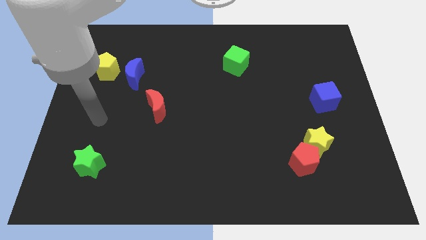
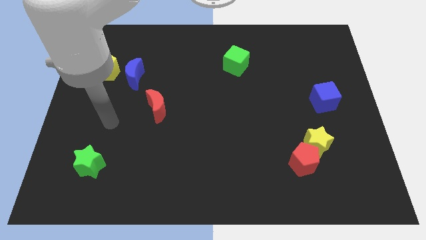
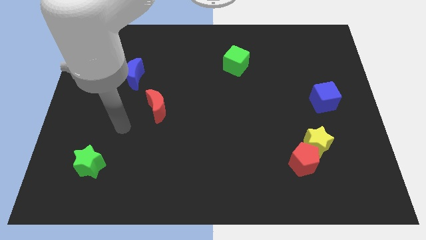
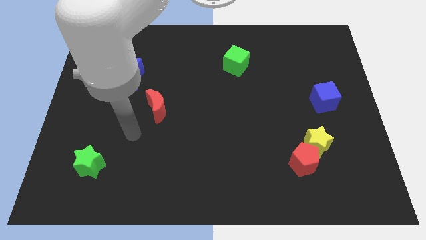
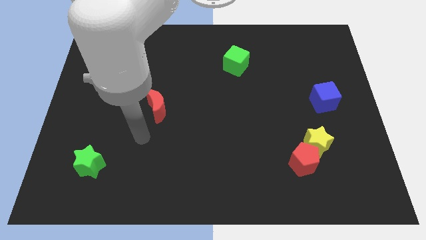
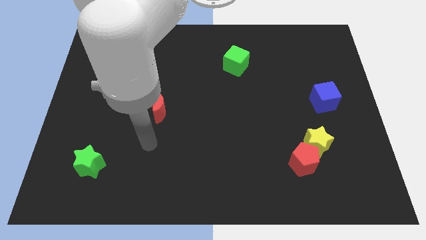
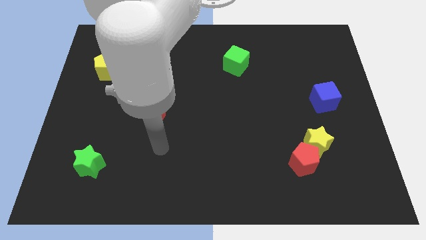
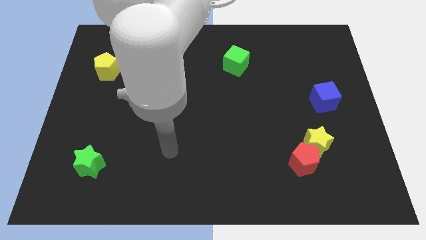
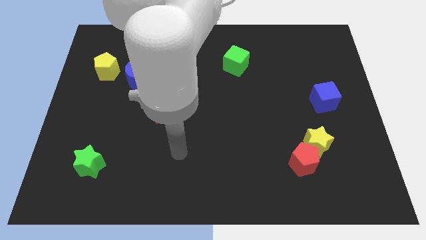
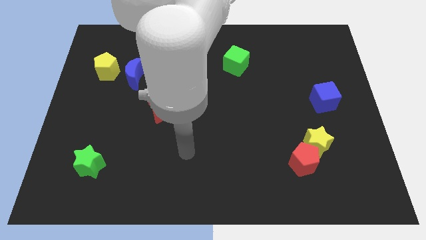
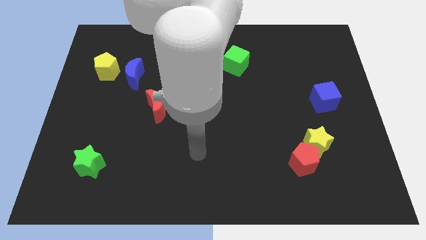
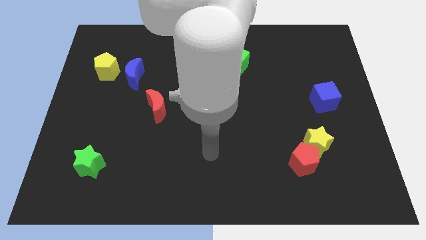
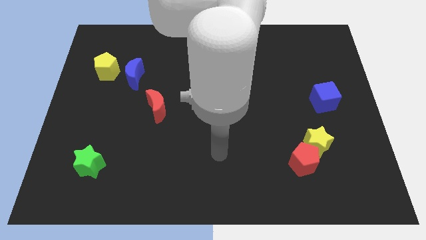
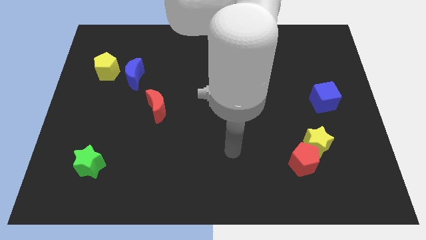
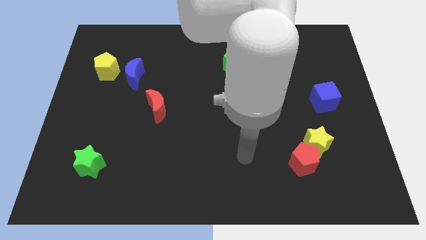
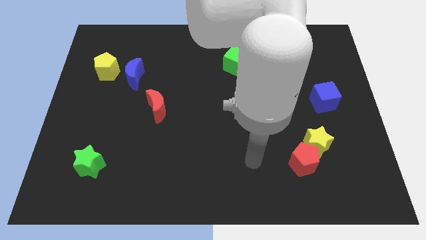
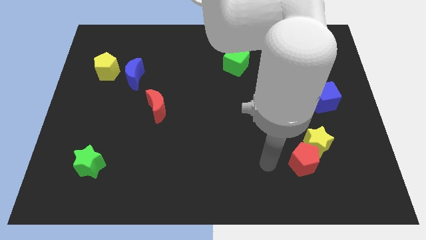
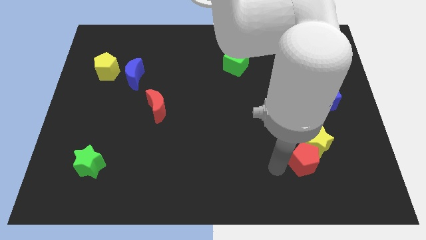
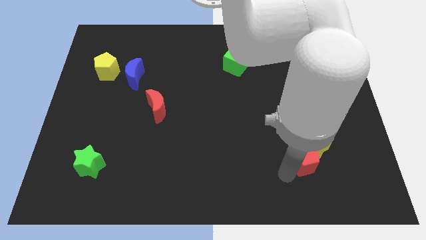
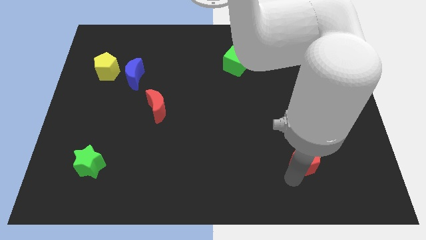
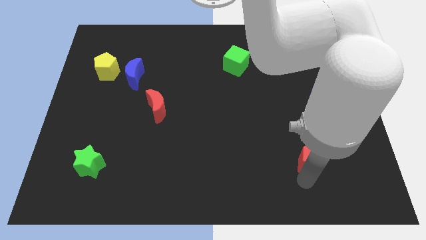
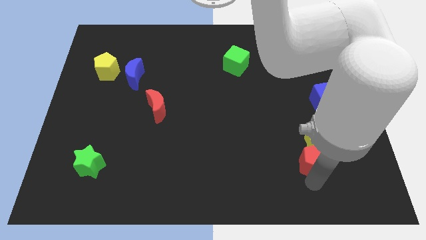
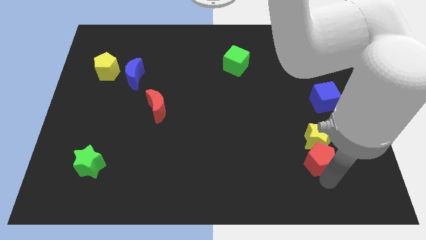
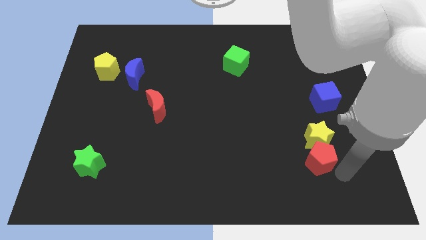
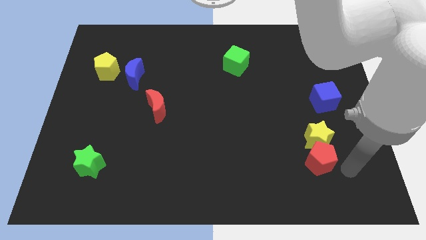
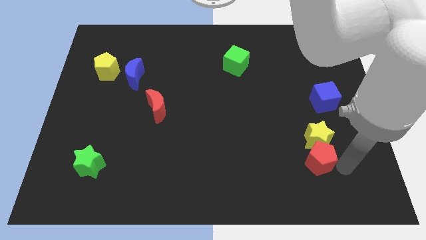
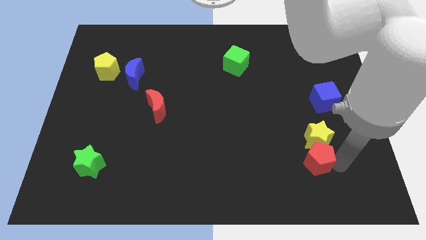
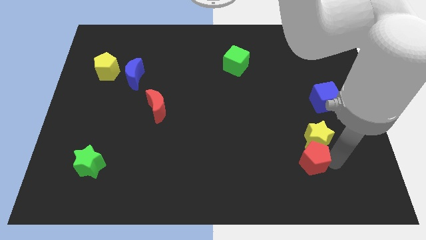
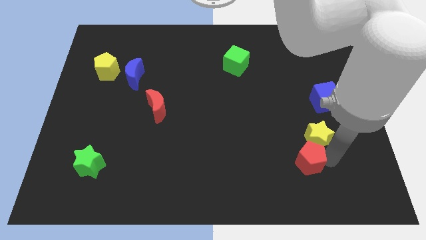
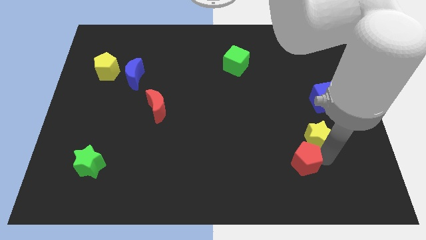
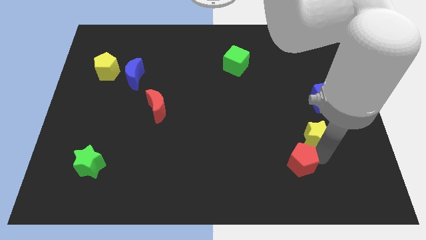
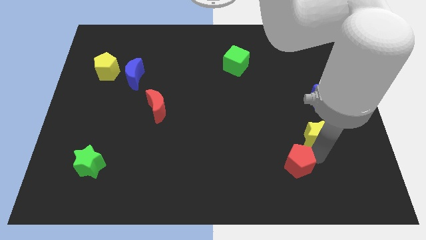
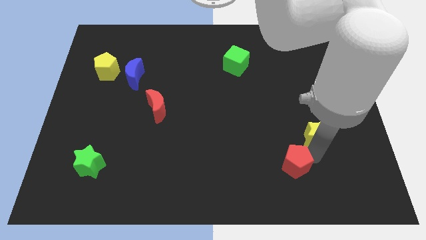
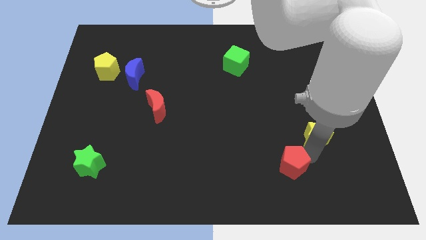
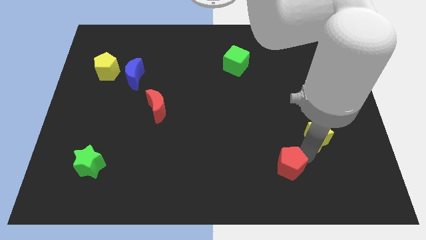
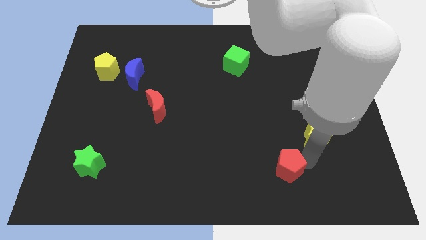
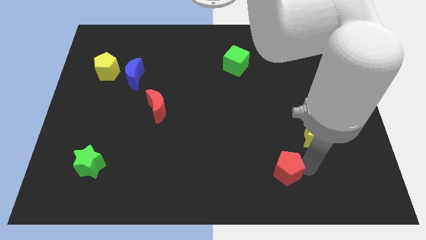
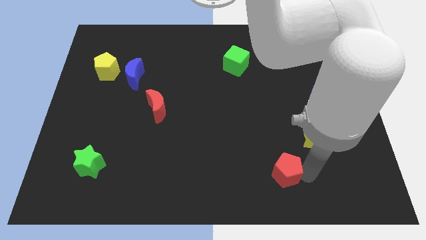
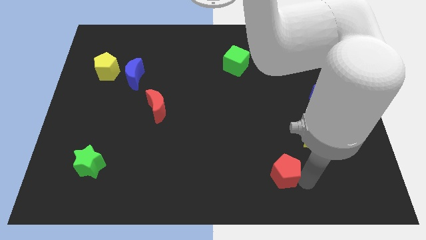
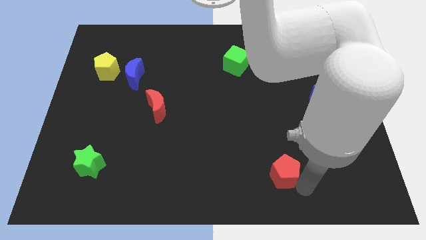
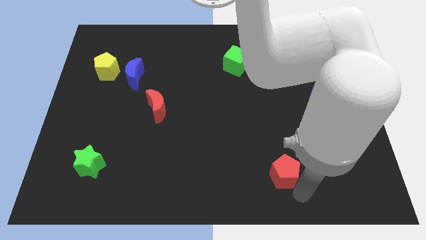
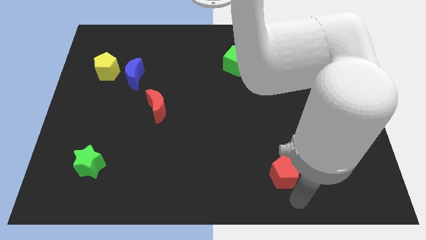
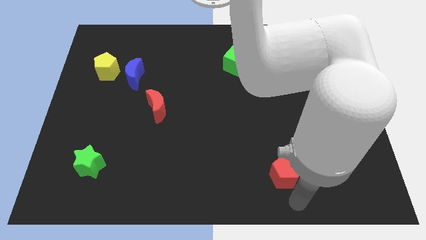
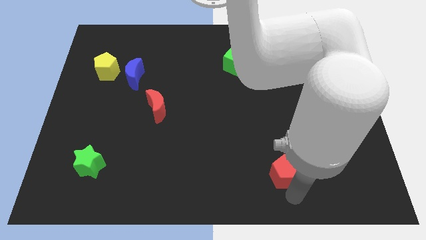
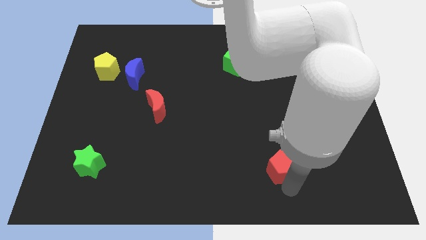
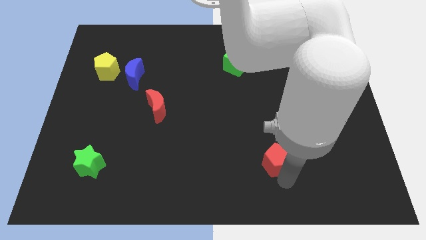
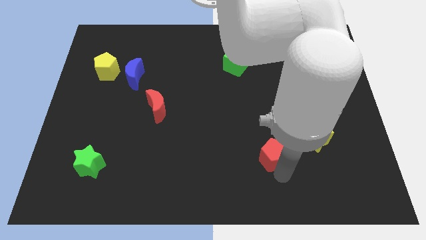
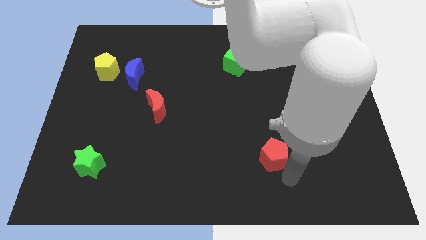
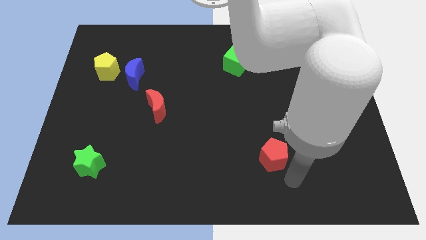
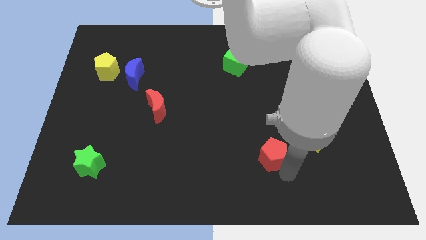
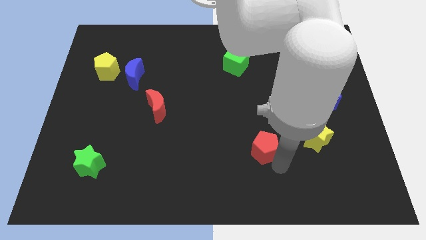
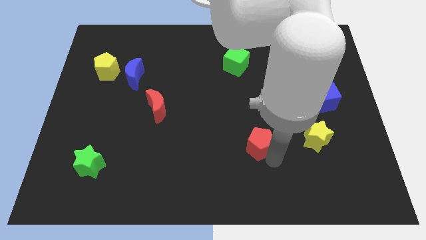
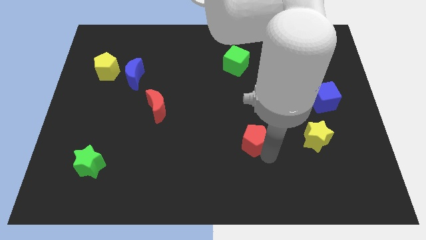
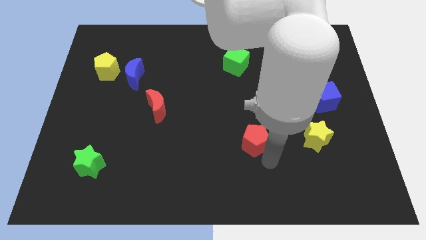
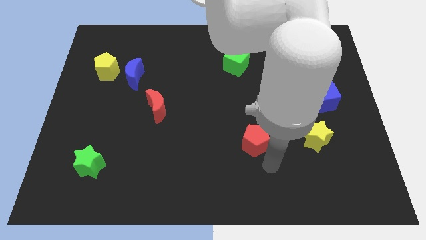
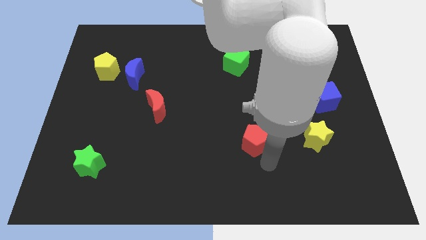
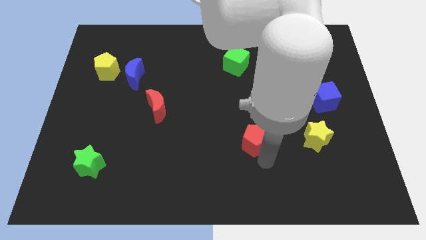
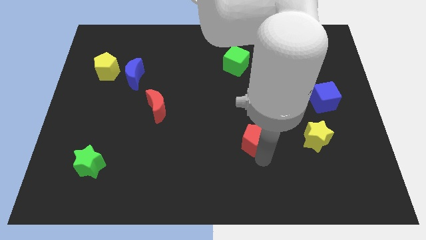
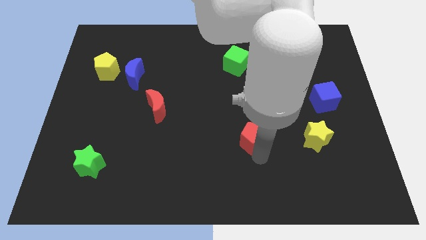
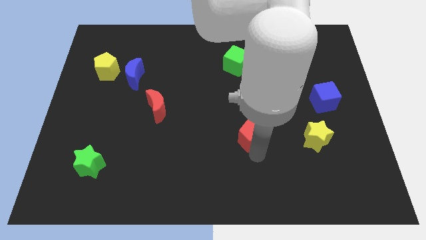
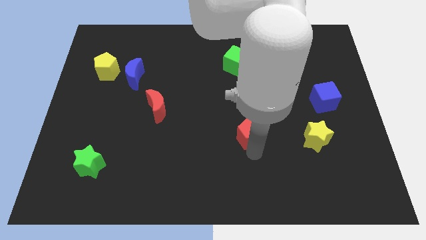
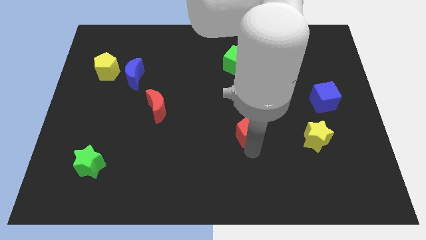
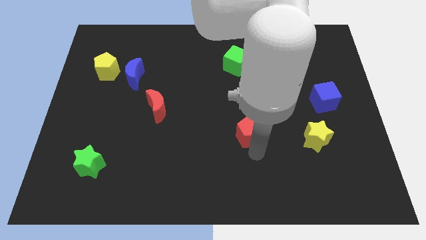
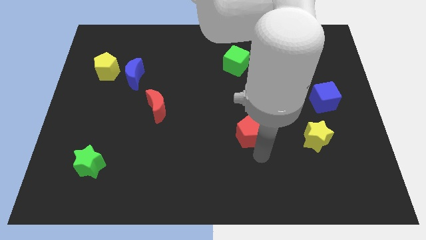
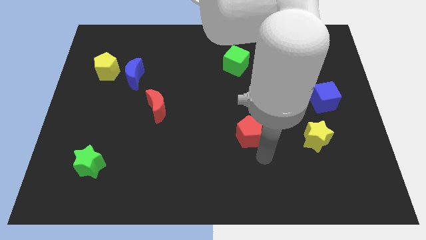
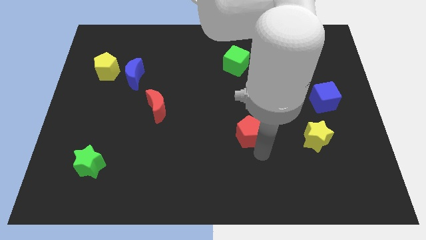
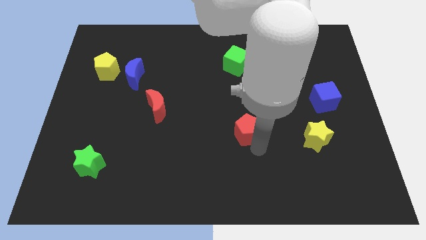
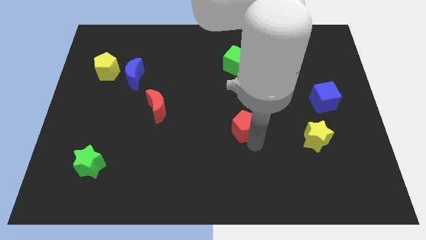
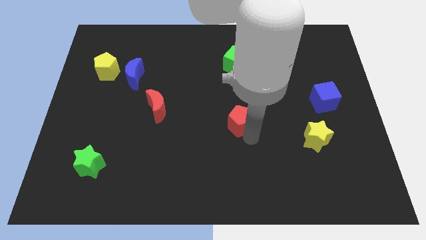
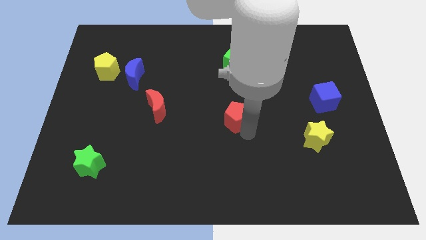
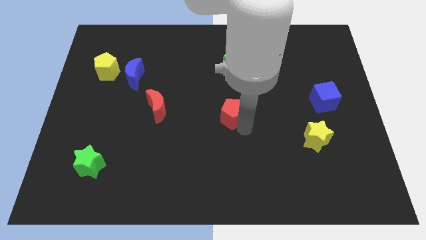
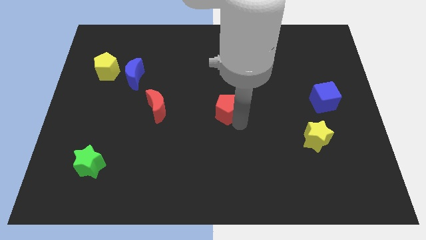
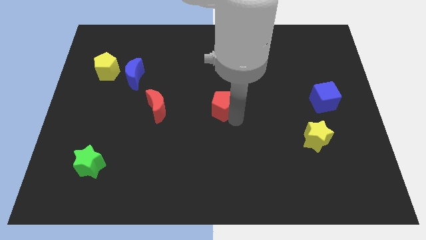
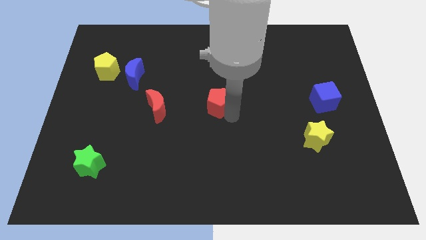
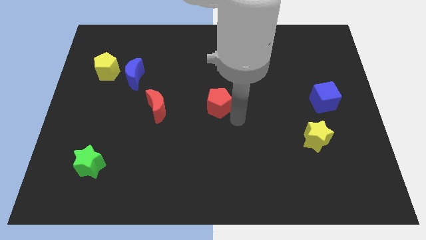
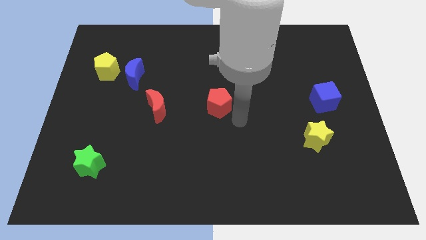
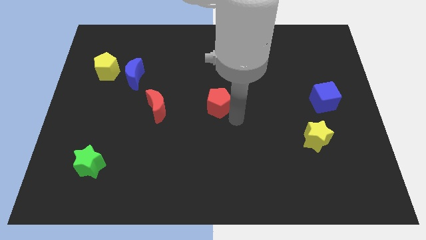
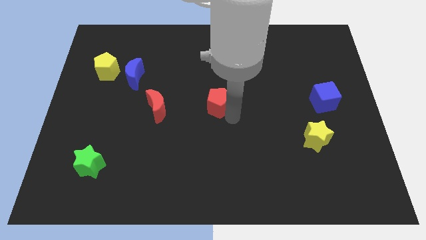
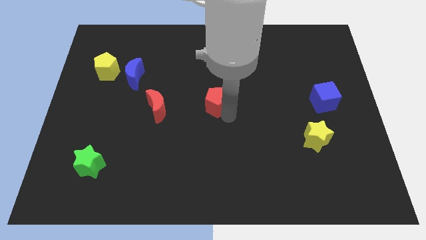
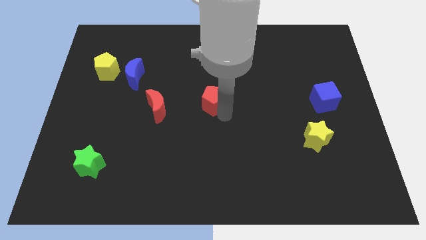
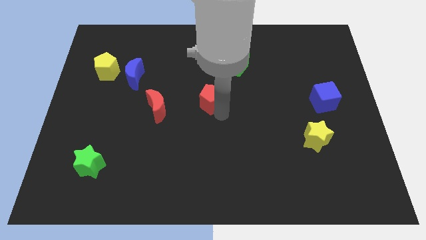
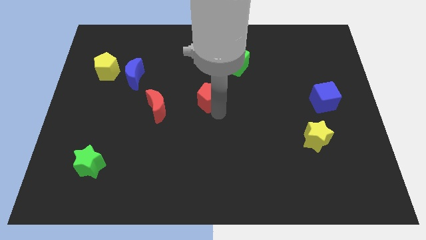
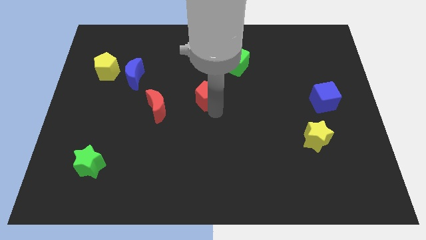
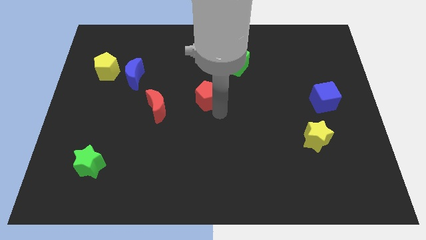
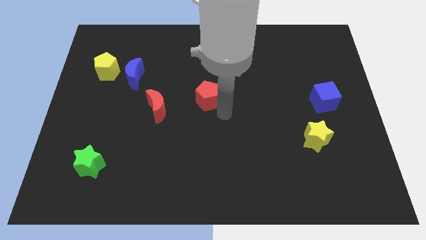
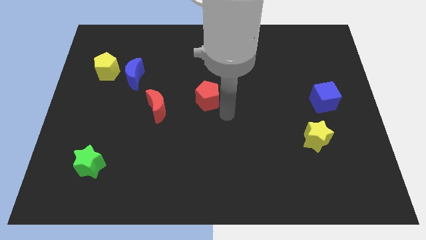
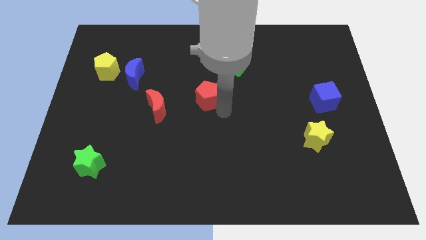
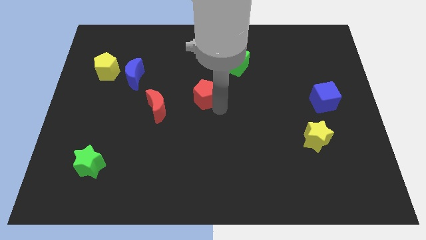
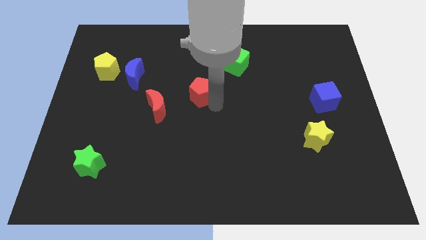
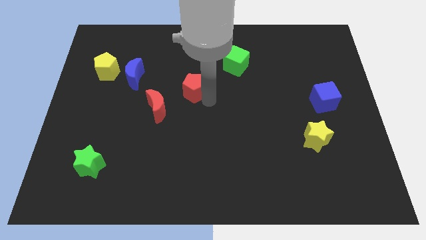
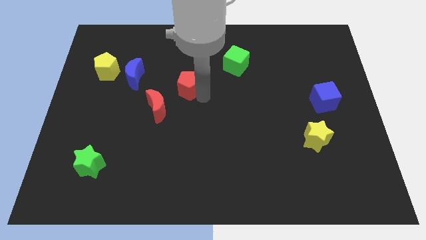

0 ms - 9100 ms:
slide the red pentagon to the right of the blue moon
